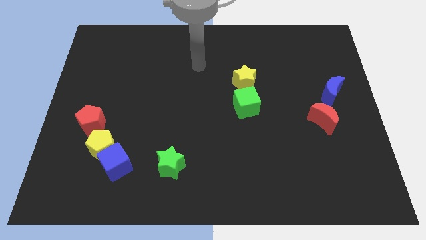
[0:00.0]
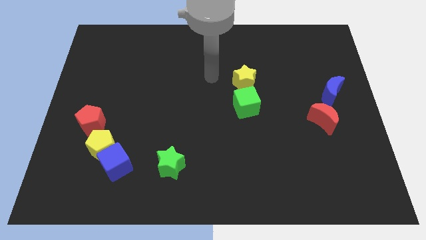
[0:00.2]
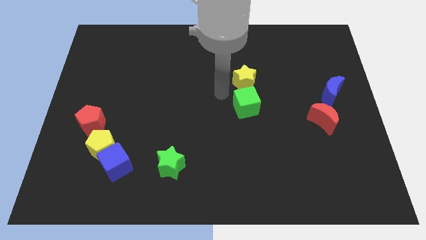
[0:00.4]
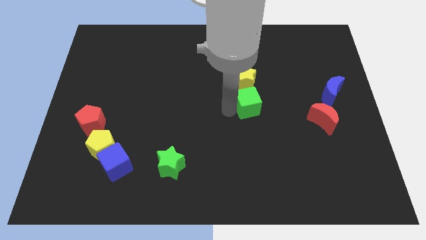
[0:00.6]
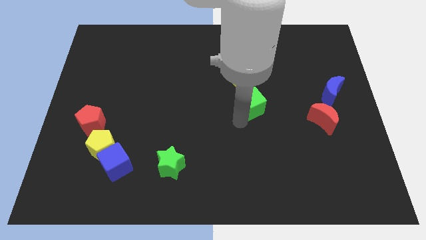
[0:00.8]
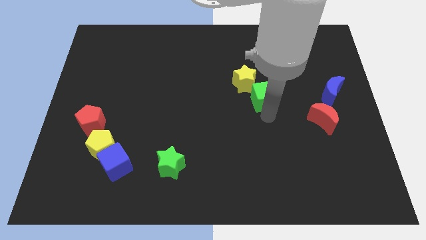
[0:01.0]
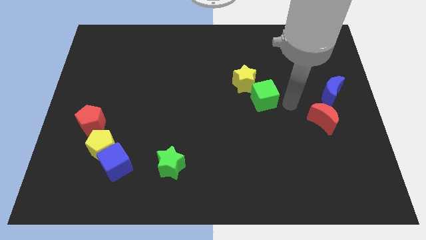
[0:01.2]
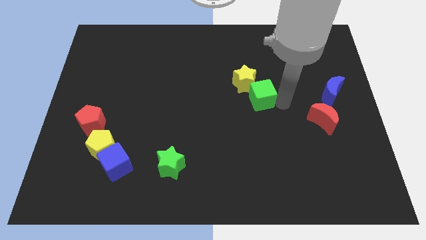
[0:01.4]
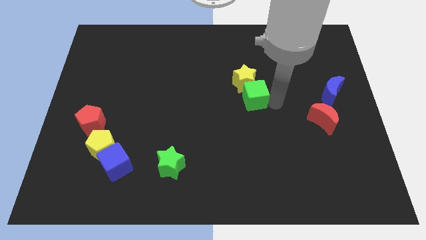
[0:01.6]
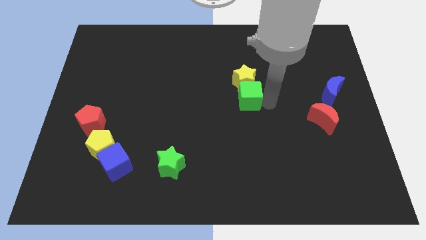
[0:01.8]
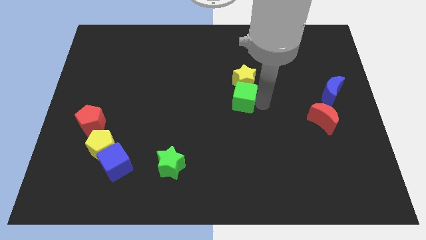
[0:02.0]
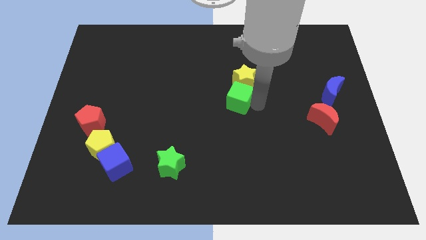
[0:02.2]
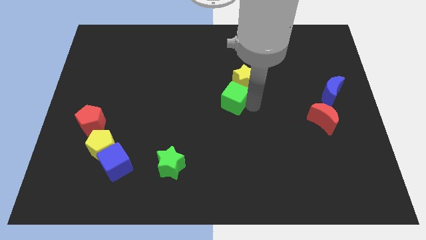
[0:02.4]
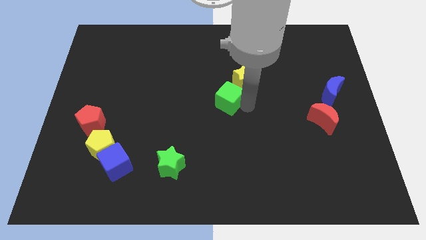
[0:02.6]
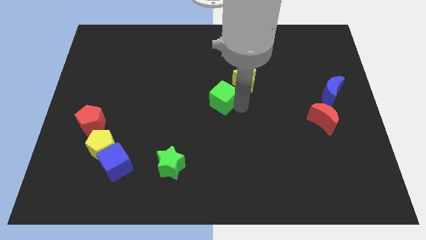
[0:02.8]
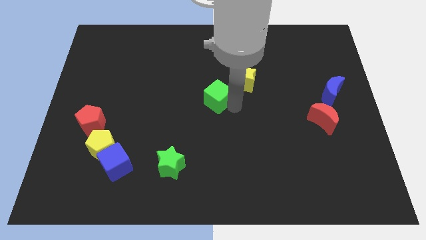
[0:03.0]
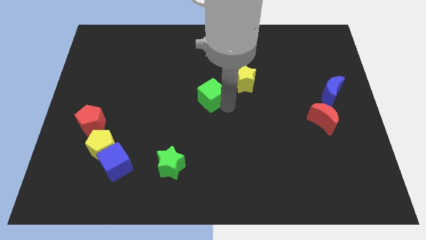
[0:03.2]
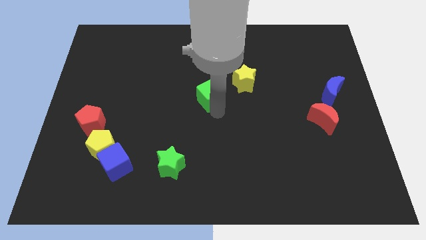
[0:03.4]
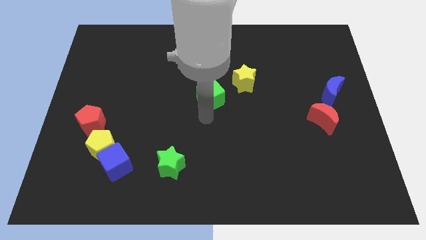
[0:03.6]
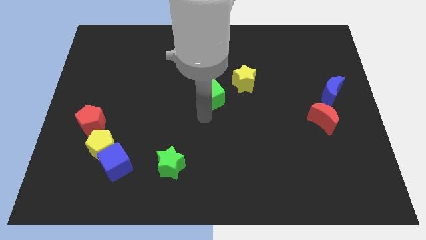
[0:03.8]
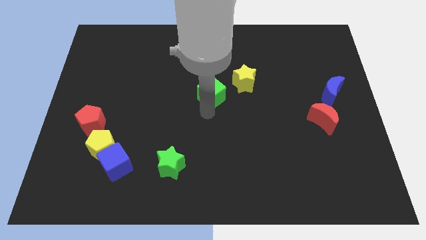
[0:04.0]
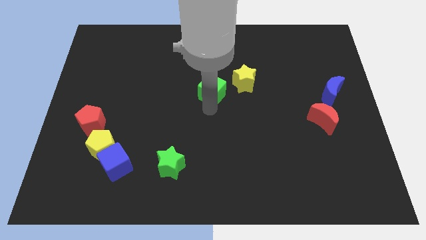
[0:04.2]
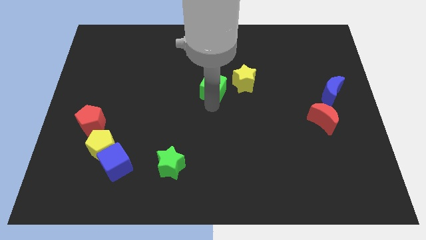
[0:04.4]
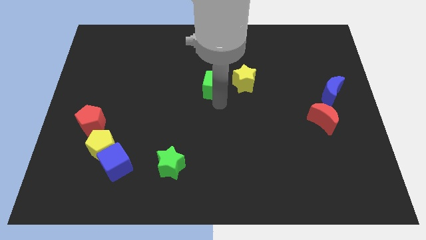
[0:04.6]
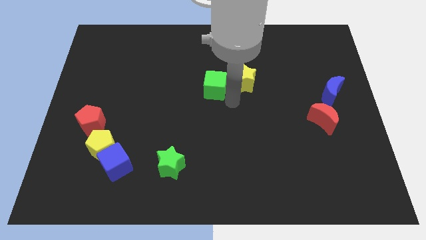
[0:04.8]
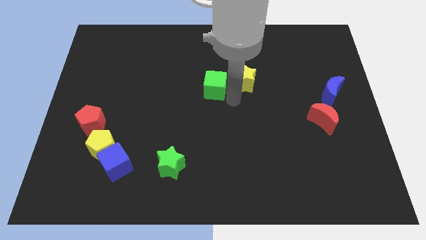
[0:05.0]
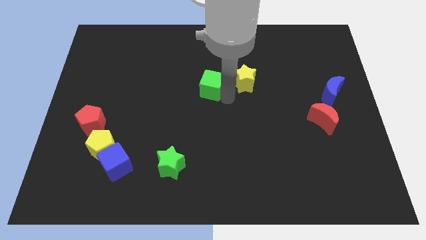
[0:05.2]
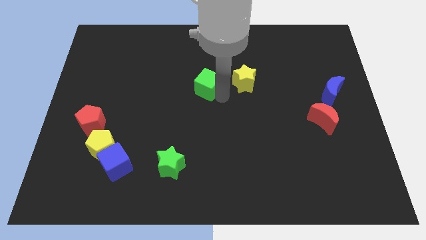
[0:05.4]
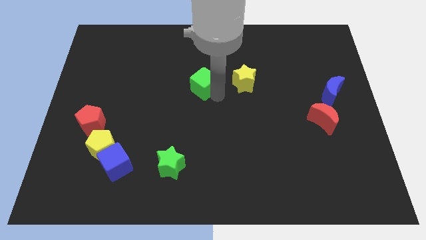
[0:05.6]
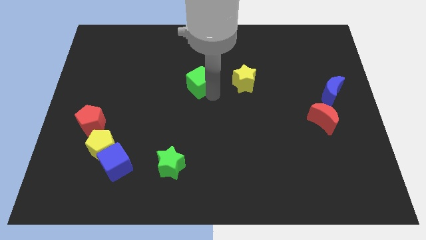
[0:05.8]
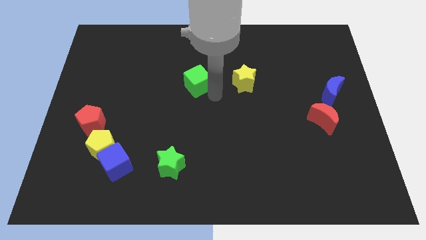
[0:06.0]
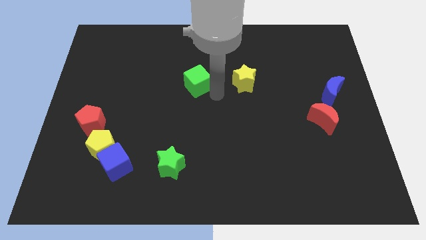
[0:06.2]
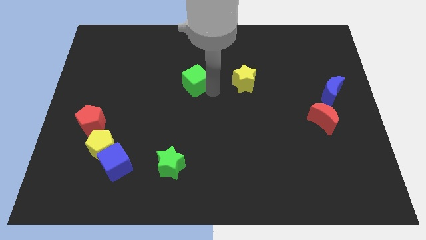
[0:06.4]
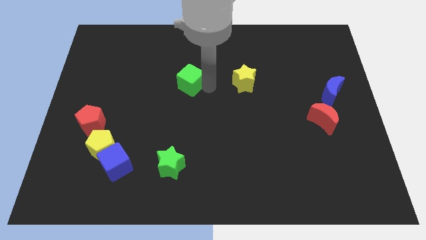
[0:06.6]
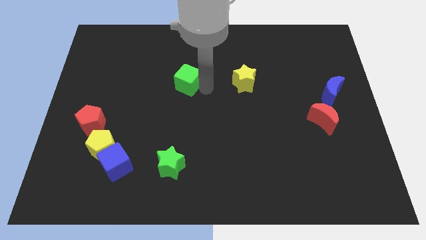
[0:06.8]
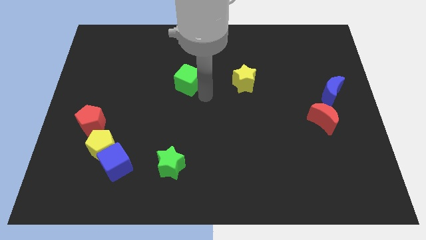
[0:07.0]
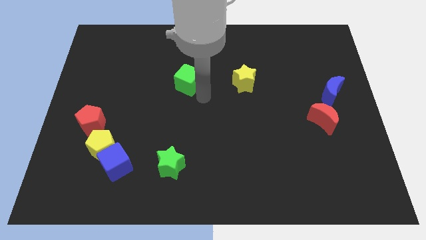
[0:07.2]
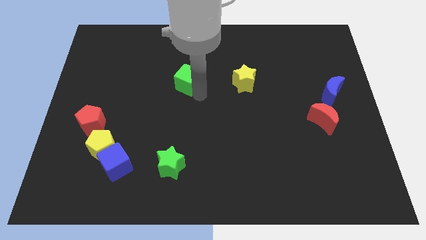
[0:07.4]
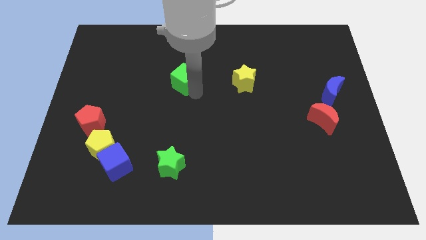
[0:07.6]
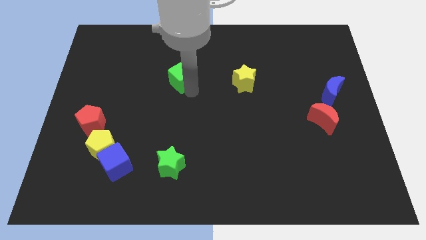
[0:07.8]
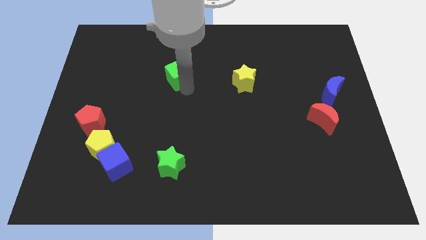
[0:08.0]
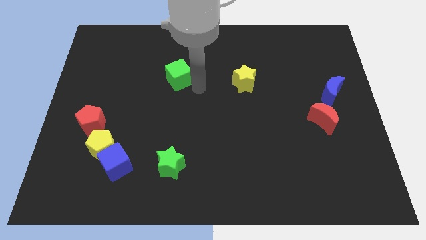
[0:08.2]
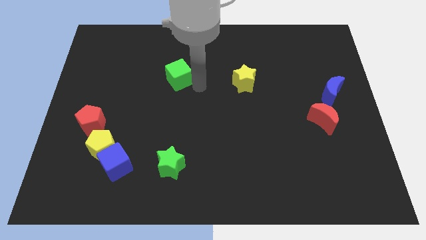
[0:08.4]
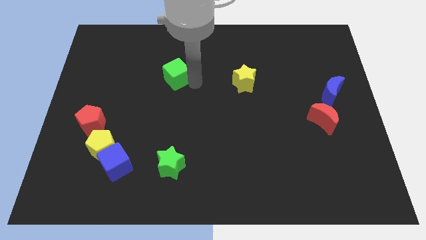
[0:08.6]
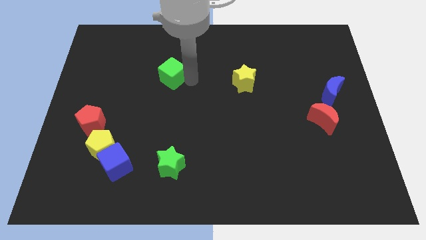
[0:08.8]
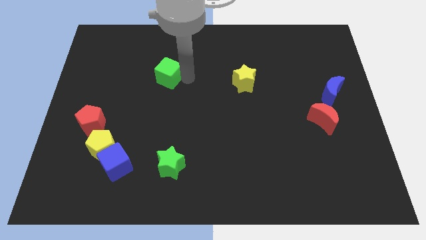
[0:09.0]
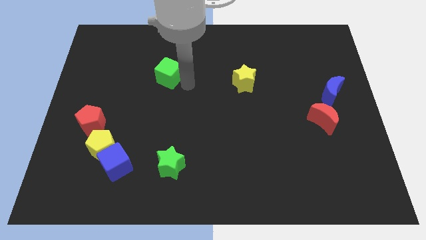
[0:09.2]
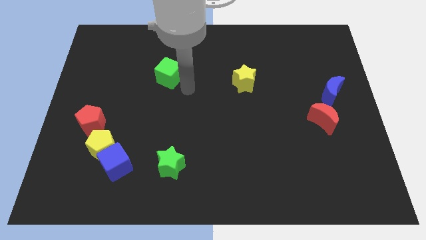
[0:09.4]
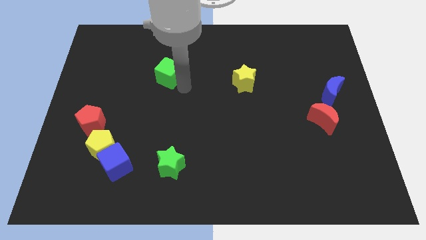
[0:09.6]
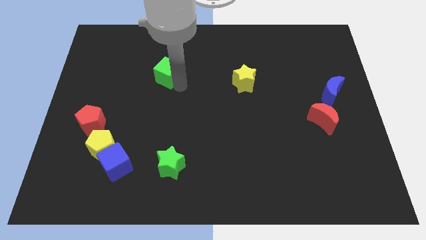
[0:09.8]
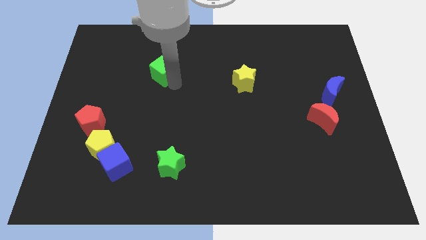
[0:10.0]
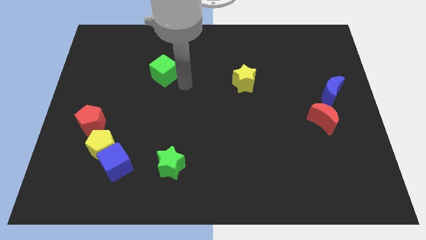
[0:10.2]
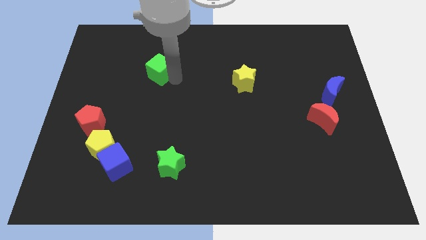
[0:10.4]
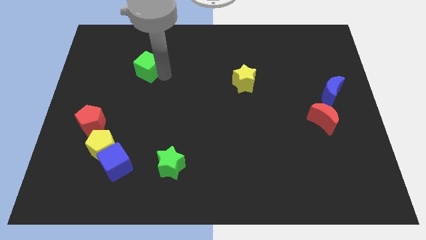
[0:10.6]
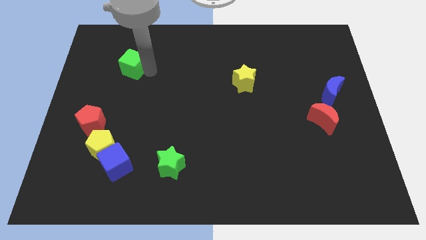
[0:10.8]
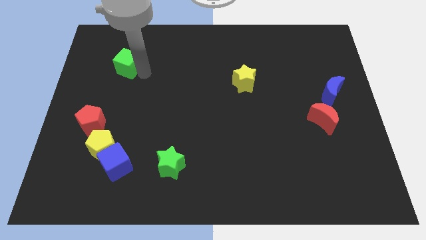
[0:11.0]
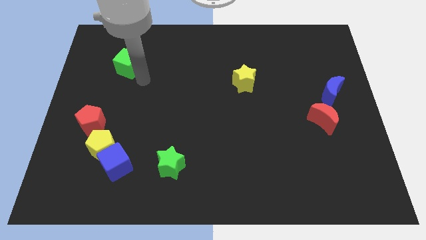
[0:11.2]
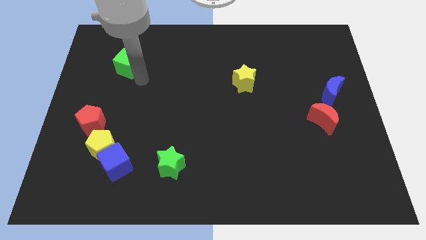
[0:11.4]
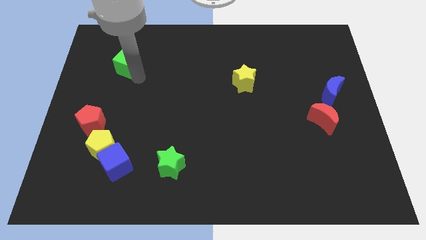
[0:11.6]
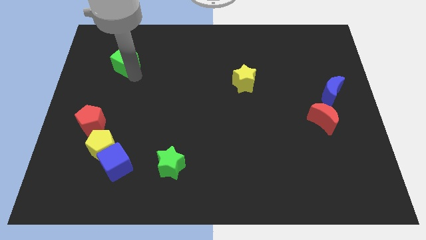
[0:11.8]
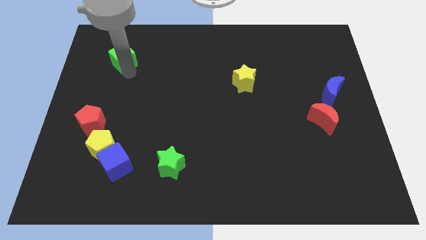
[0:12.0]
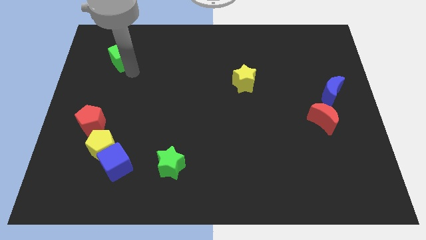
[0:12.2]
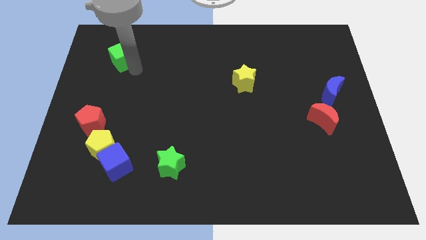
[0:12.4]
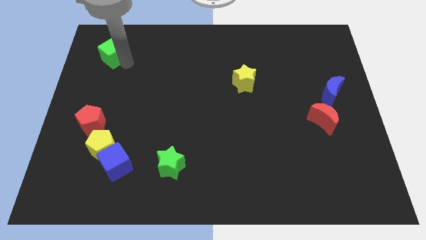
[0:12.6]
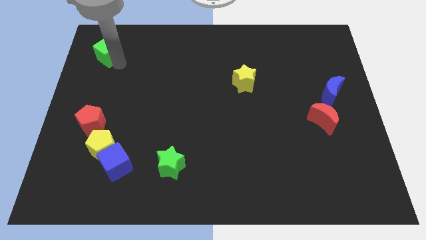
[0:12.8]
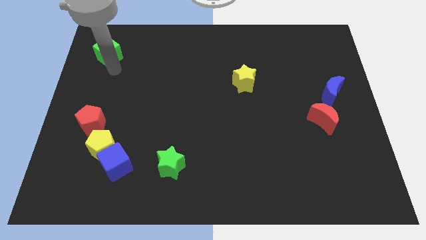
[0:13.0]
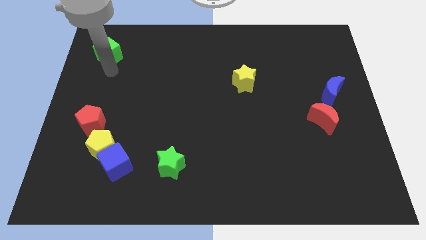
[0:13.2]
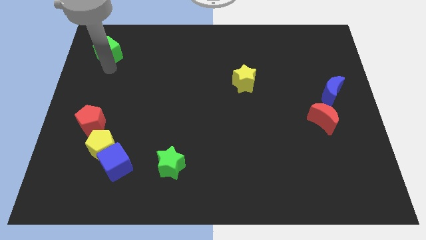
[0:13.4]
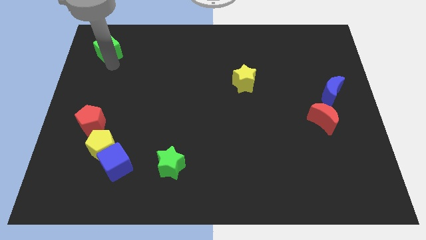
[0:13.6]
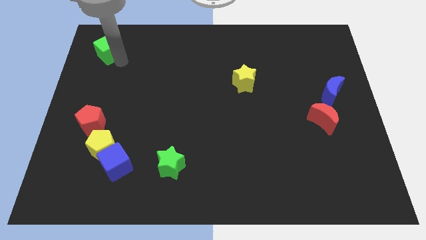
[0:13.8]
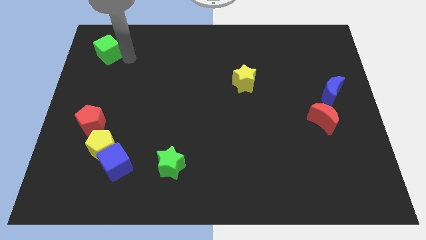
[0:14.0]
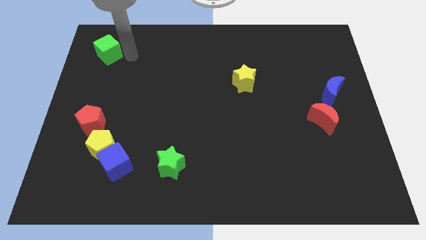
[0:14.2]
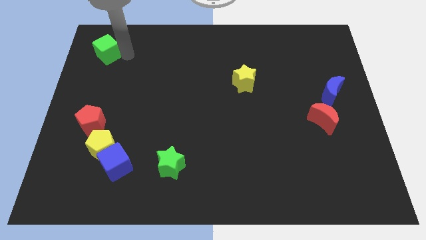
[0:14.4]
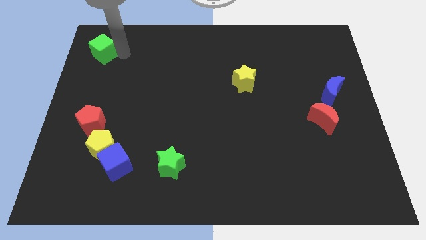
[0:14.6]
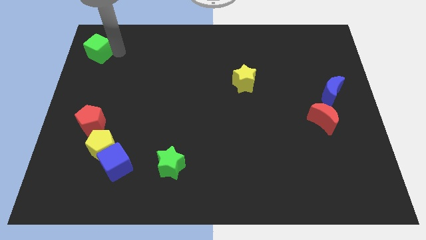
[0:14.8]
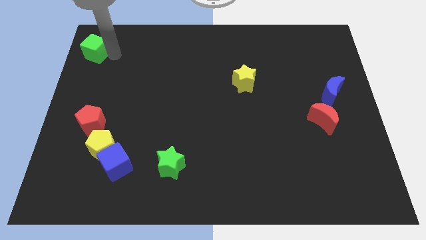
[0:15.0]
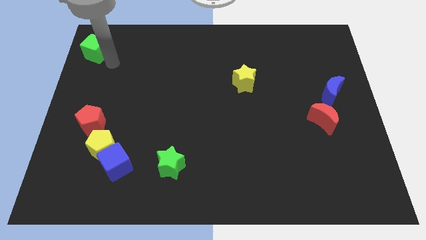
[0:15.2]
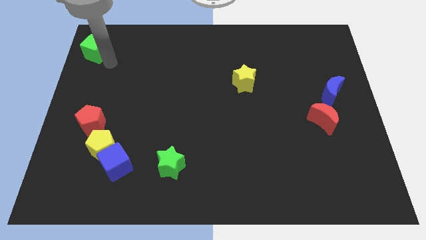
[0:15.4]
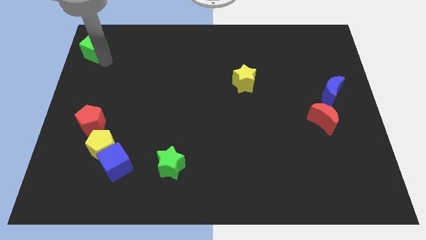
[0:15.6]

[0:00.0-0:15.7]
push the green cube to the upper left corner
